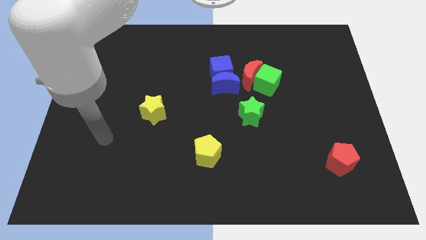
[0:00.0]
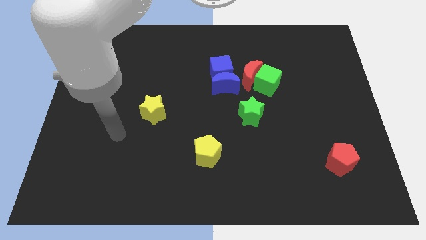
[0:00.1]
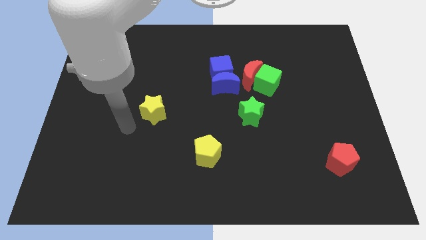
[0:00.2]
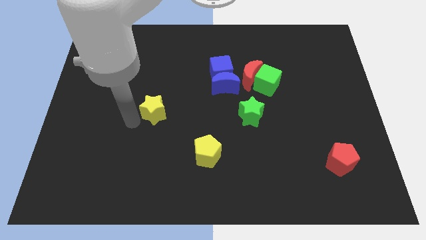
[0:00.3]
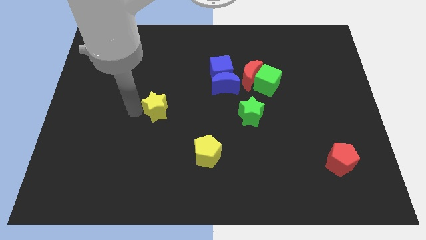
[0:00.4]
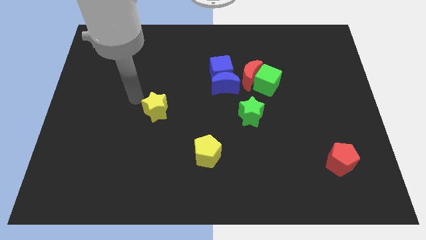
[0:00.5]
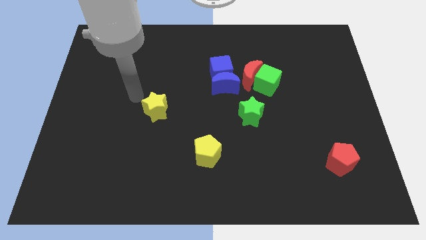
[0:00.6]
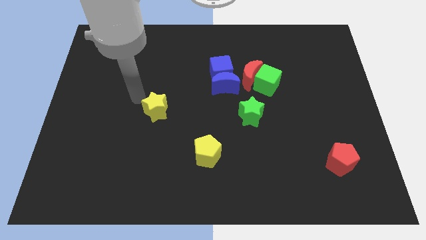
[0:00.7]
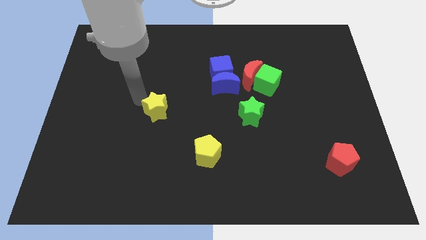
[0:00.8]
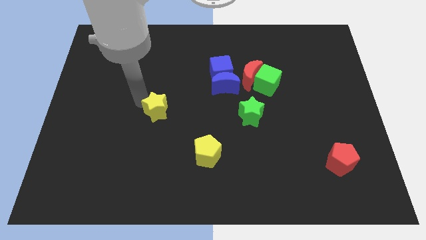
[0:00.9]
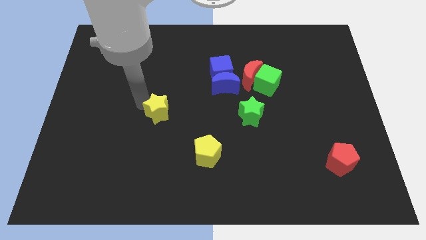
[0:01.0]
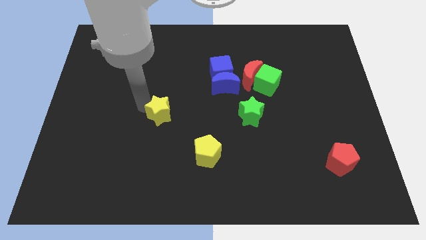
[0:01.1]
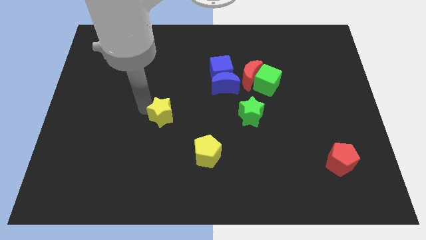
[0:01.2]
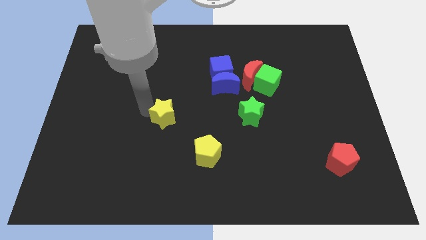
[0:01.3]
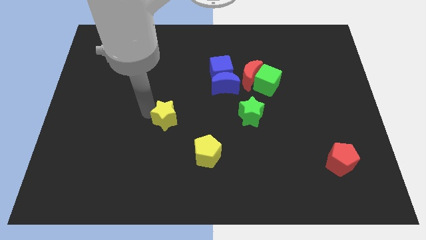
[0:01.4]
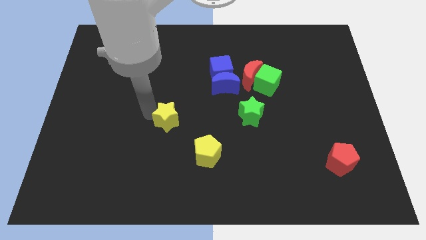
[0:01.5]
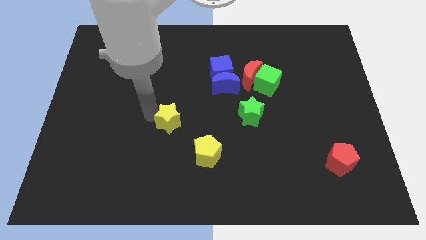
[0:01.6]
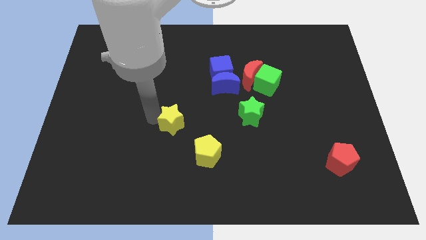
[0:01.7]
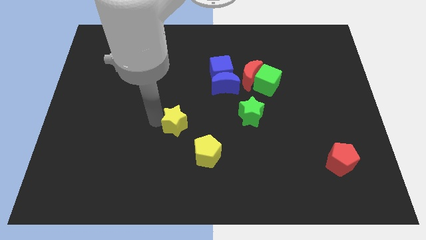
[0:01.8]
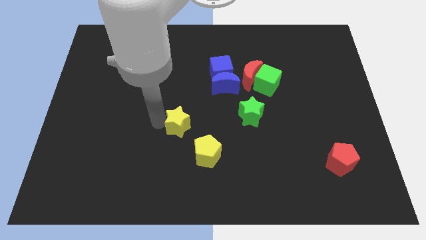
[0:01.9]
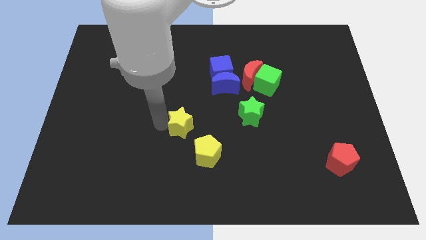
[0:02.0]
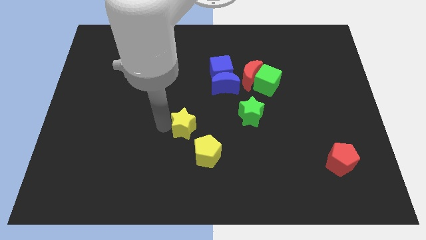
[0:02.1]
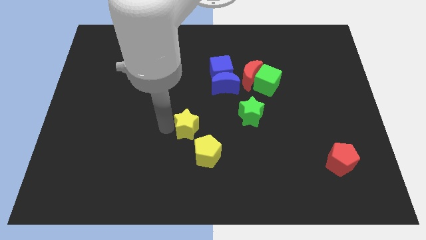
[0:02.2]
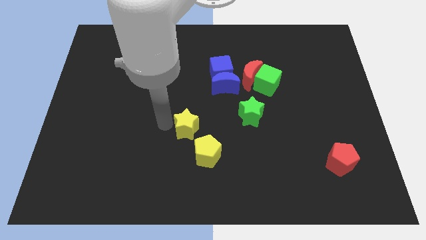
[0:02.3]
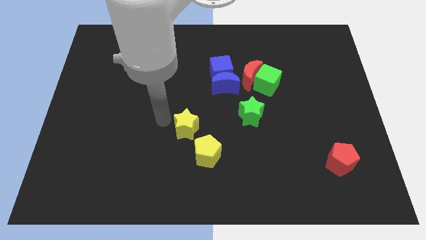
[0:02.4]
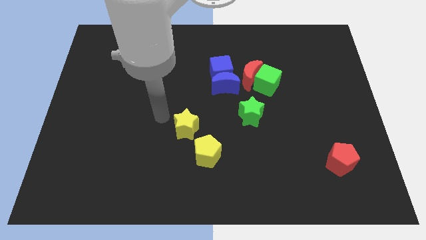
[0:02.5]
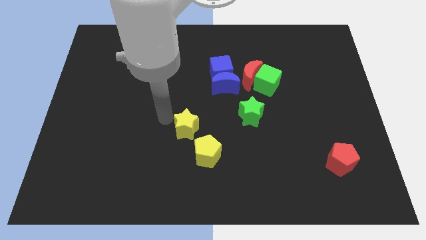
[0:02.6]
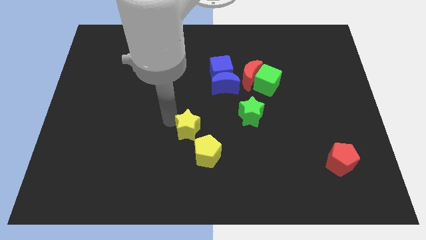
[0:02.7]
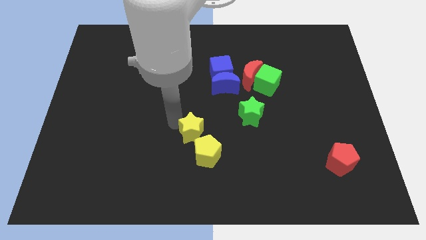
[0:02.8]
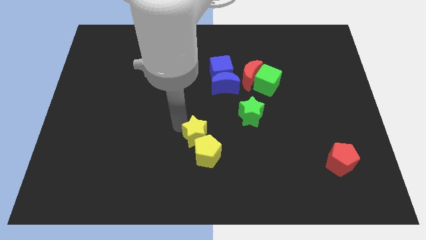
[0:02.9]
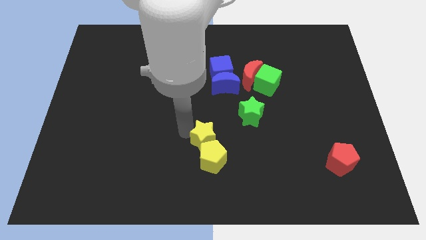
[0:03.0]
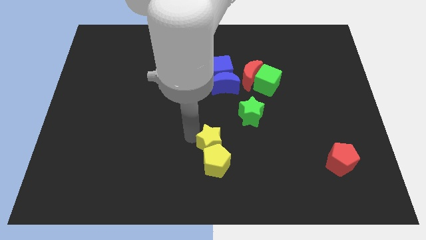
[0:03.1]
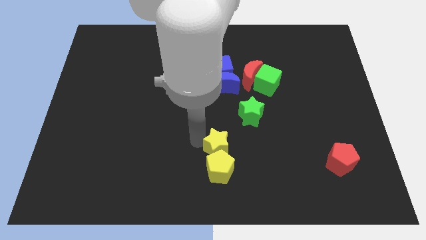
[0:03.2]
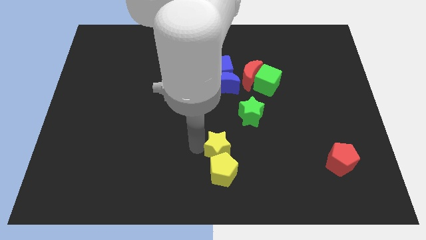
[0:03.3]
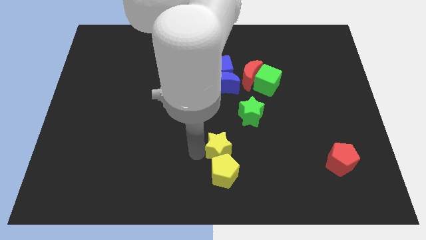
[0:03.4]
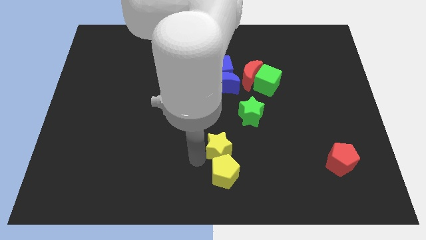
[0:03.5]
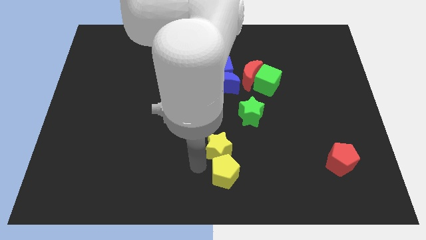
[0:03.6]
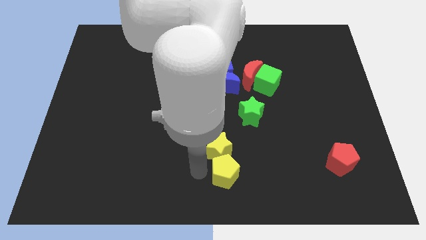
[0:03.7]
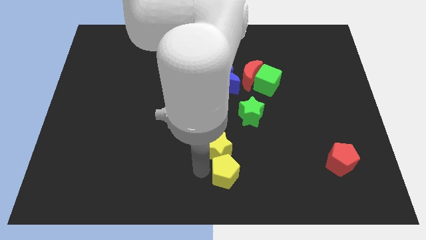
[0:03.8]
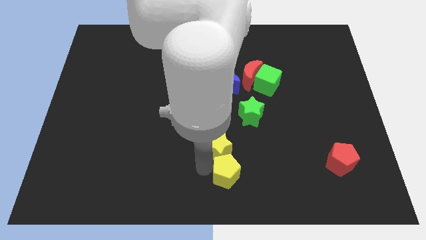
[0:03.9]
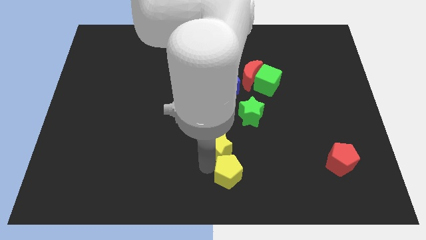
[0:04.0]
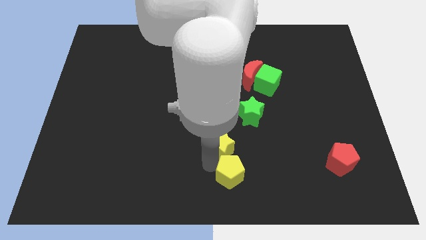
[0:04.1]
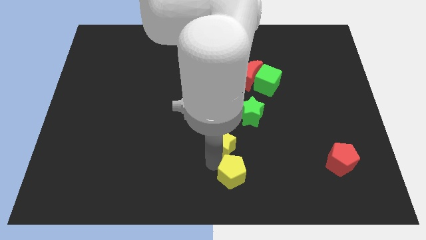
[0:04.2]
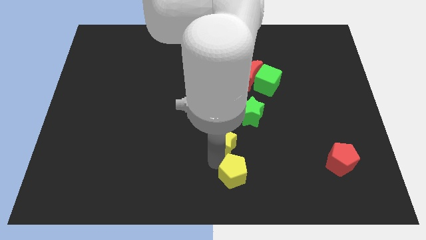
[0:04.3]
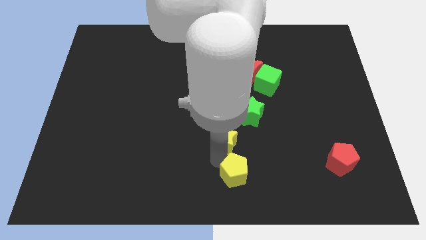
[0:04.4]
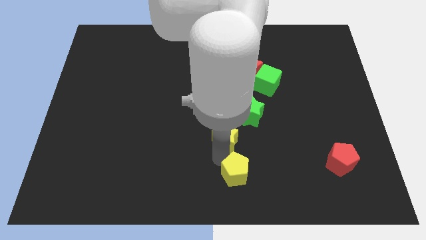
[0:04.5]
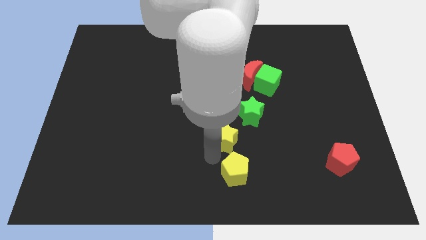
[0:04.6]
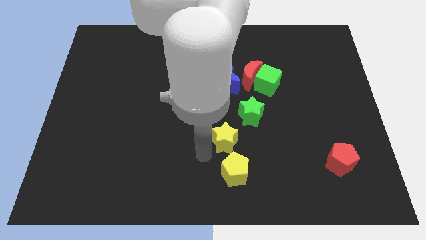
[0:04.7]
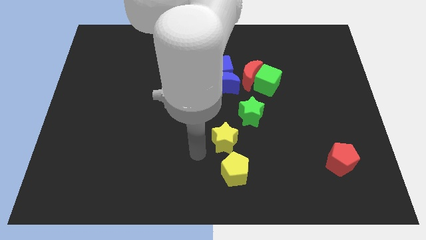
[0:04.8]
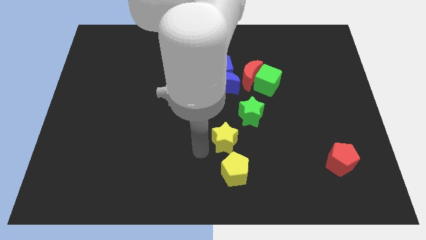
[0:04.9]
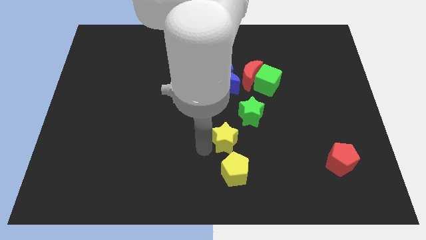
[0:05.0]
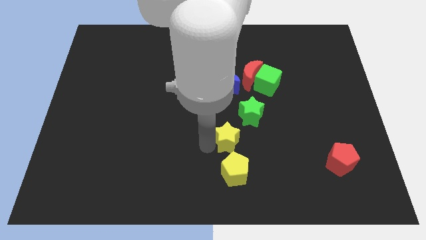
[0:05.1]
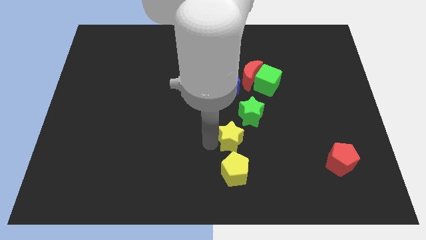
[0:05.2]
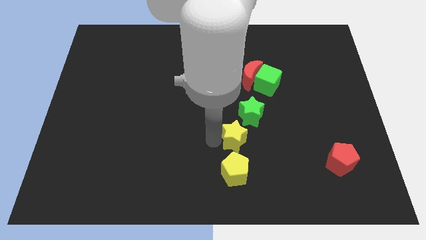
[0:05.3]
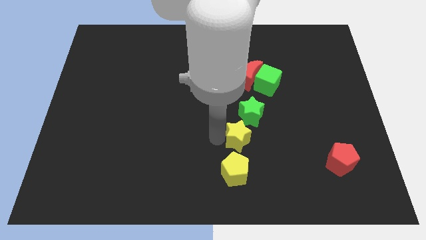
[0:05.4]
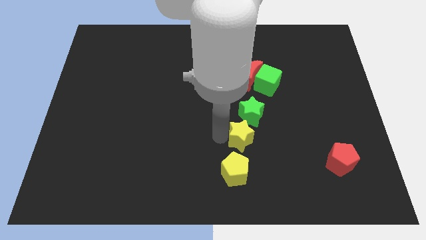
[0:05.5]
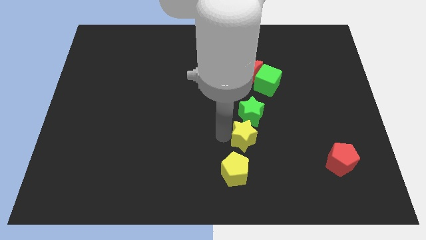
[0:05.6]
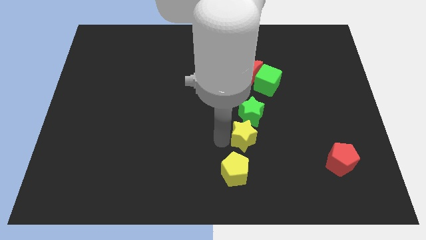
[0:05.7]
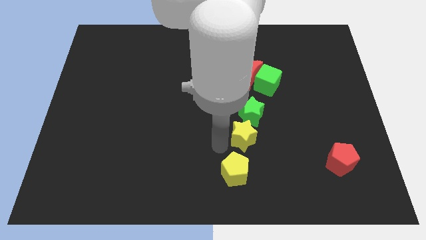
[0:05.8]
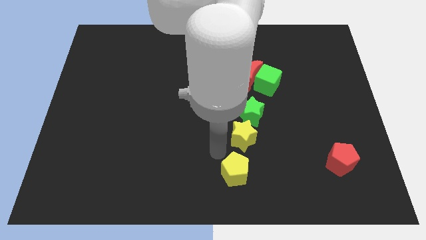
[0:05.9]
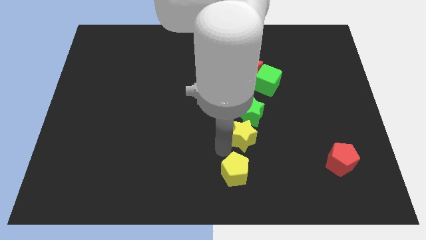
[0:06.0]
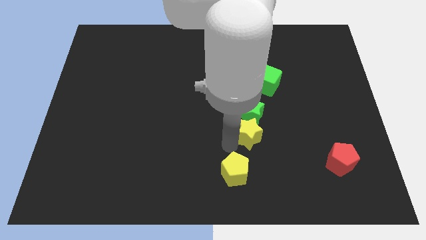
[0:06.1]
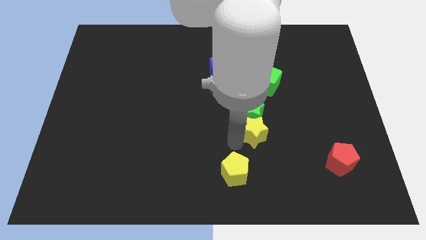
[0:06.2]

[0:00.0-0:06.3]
push the yellow star to the right

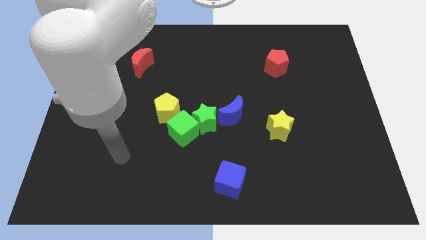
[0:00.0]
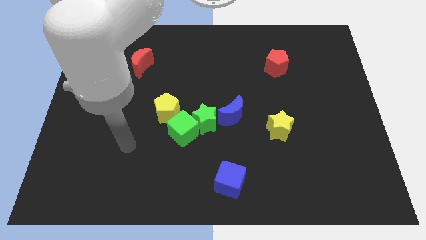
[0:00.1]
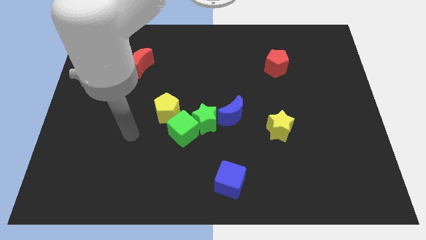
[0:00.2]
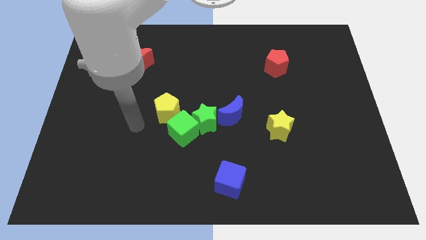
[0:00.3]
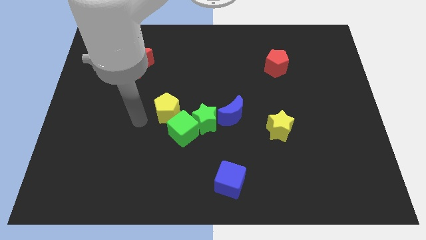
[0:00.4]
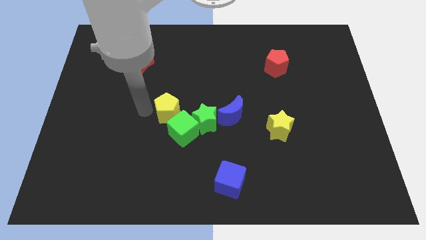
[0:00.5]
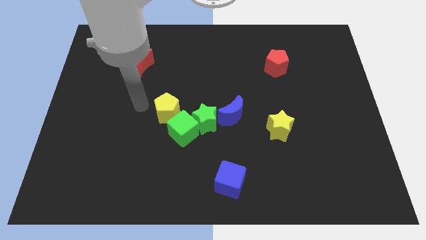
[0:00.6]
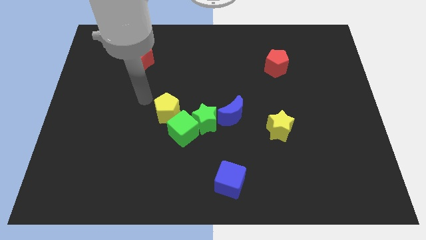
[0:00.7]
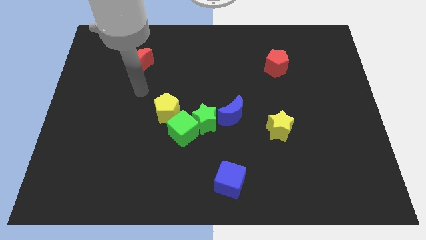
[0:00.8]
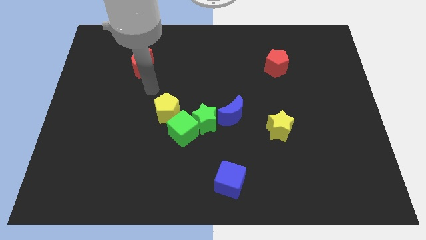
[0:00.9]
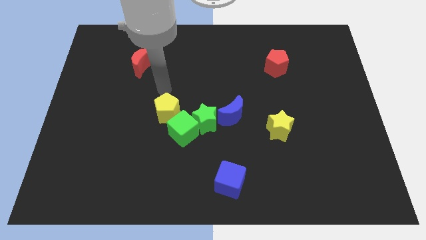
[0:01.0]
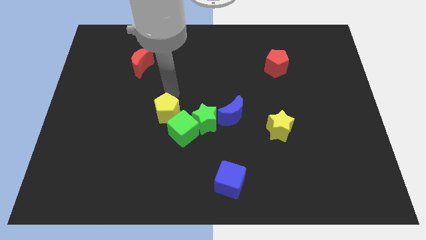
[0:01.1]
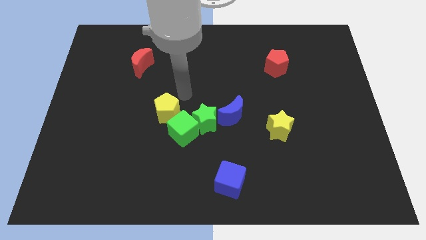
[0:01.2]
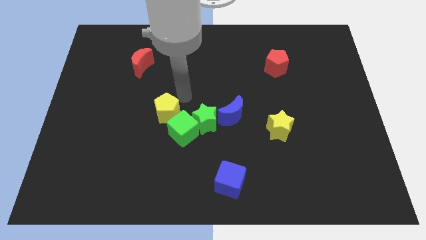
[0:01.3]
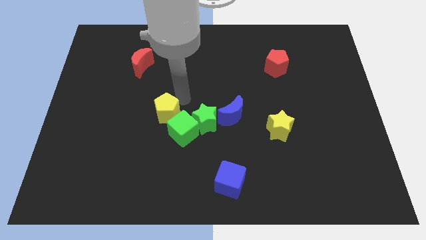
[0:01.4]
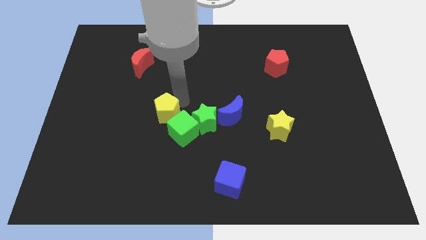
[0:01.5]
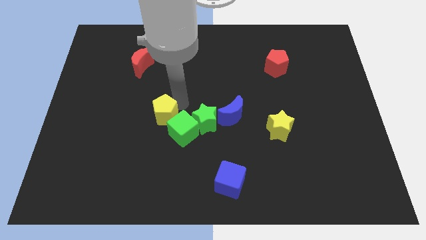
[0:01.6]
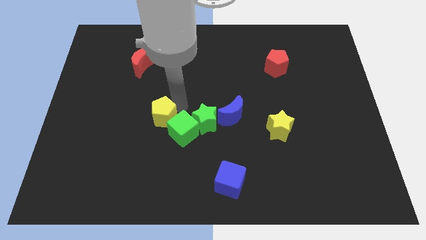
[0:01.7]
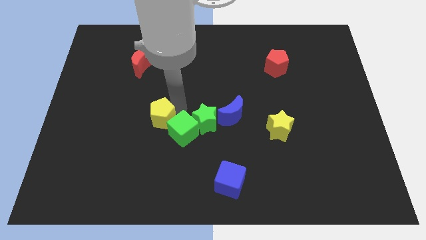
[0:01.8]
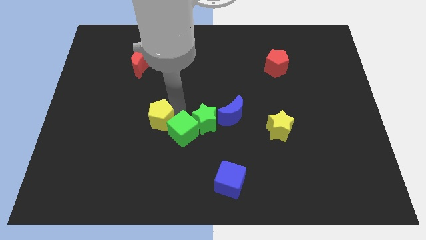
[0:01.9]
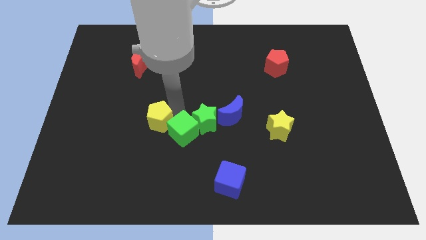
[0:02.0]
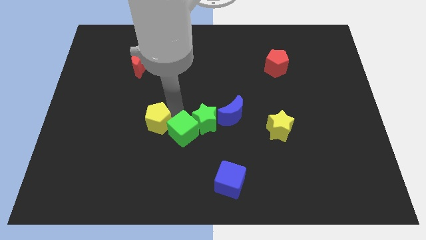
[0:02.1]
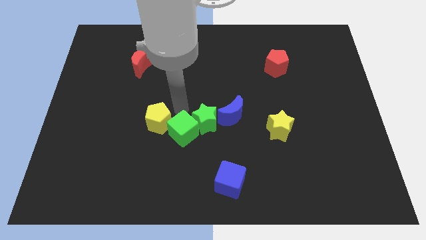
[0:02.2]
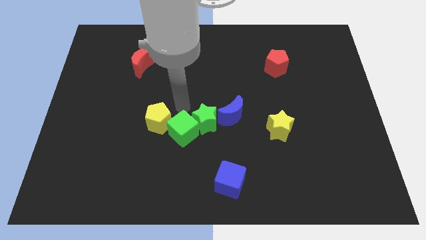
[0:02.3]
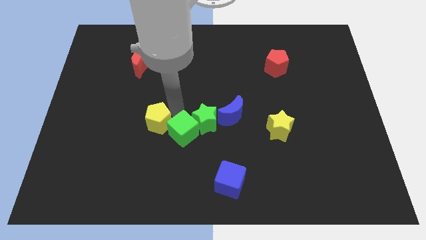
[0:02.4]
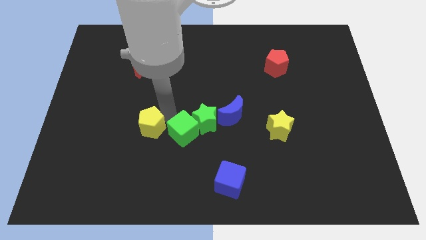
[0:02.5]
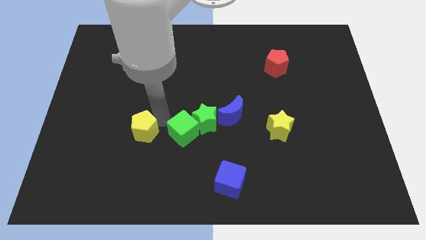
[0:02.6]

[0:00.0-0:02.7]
slightly push the yellow pentagon down and then to the left
